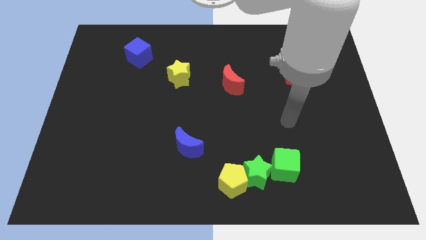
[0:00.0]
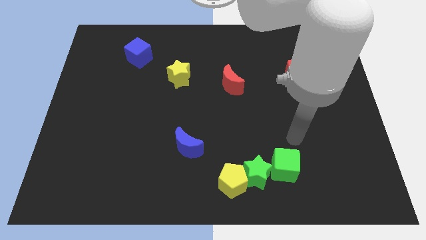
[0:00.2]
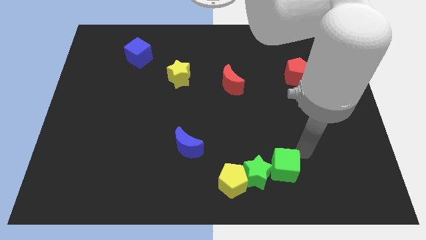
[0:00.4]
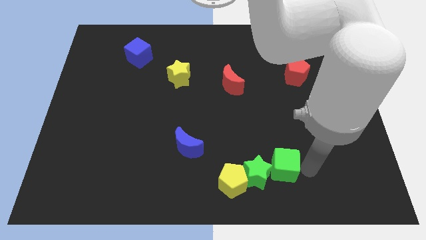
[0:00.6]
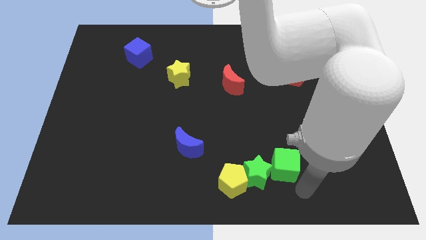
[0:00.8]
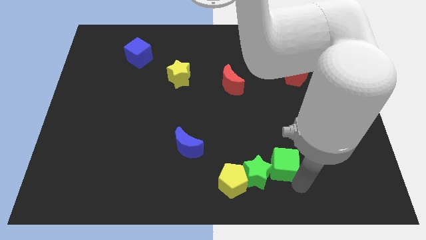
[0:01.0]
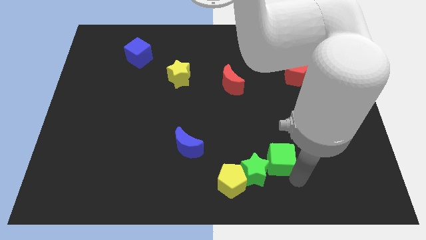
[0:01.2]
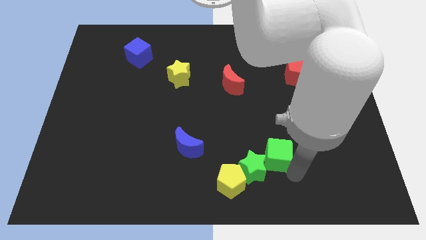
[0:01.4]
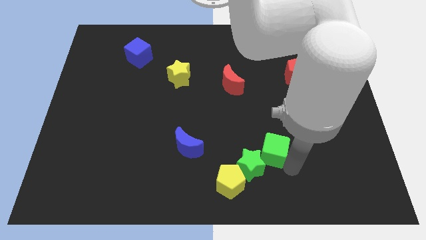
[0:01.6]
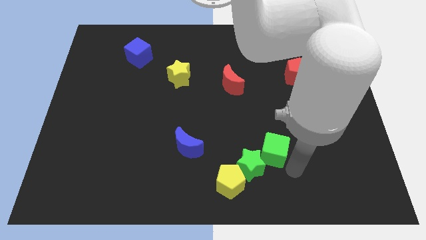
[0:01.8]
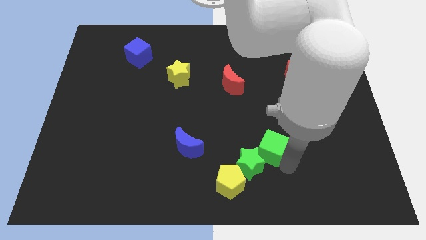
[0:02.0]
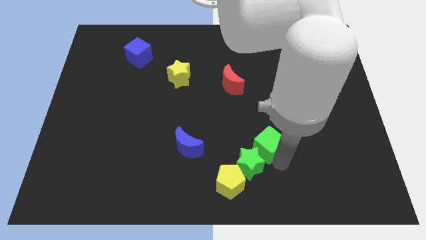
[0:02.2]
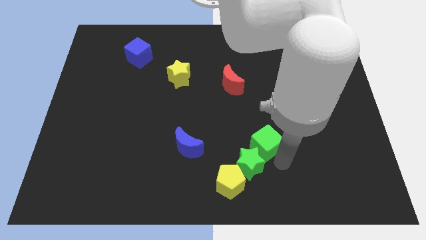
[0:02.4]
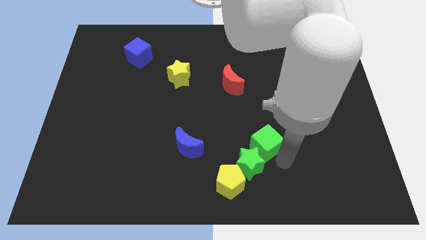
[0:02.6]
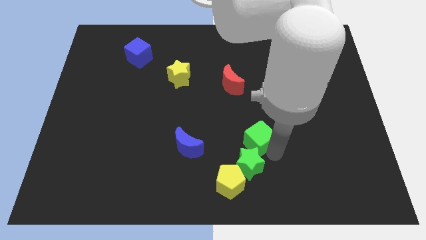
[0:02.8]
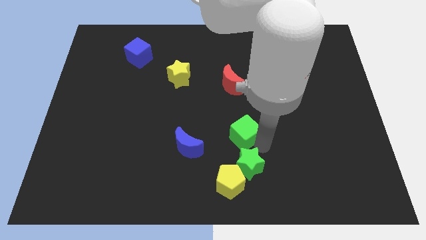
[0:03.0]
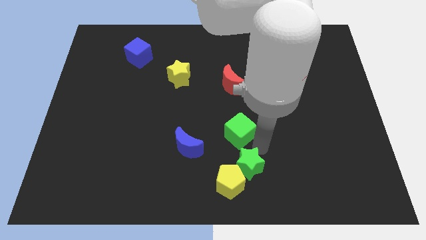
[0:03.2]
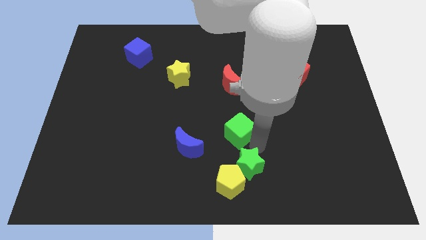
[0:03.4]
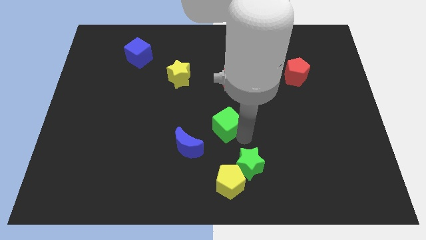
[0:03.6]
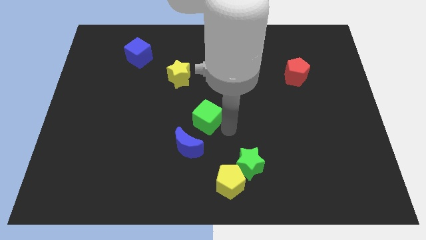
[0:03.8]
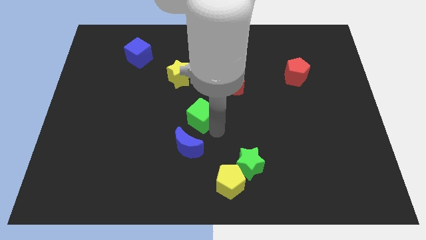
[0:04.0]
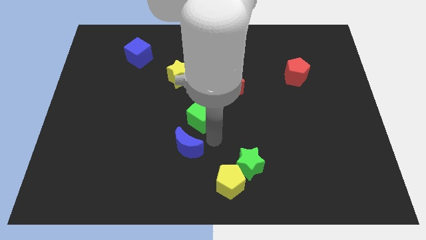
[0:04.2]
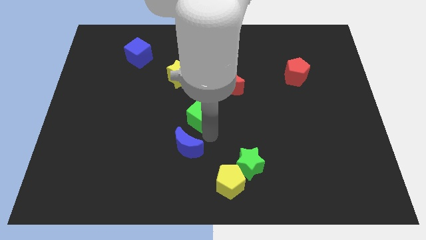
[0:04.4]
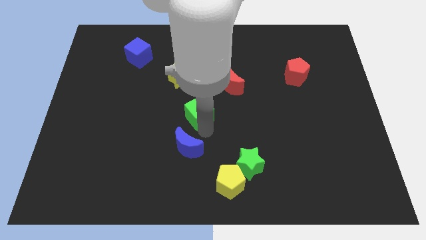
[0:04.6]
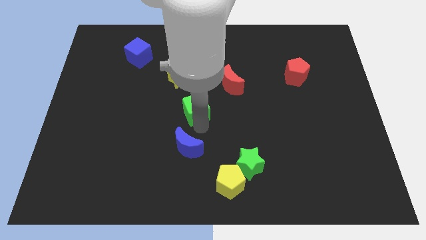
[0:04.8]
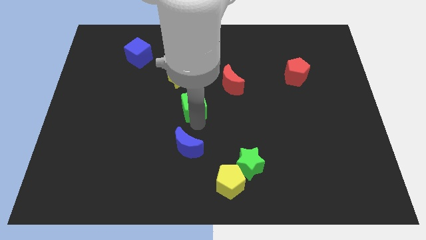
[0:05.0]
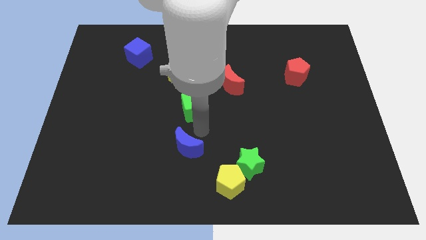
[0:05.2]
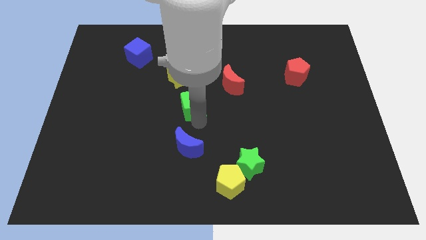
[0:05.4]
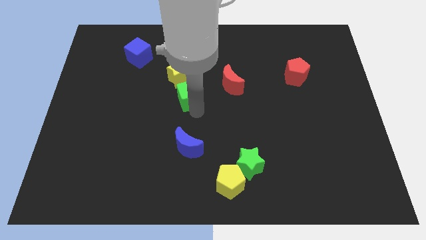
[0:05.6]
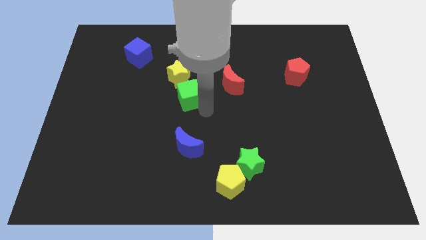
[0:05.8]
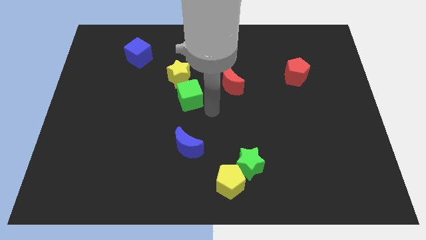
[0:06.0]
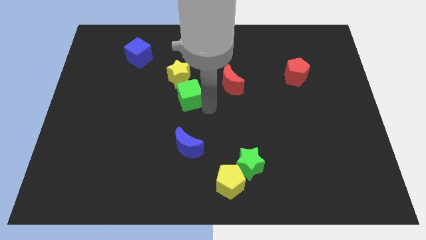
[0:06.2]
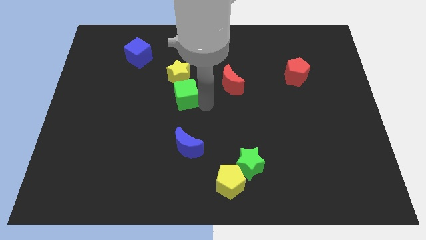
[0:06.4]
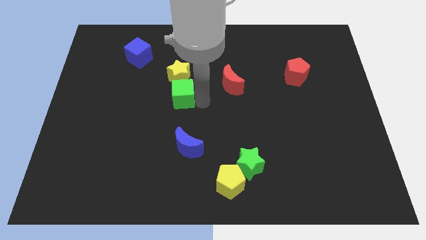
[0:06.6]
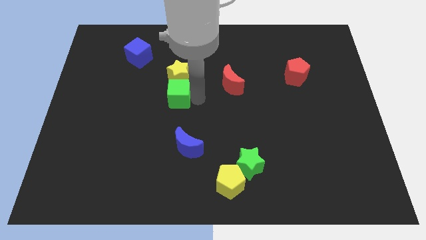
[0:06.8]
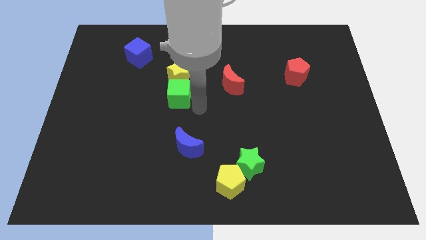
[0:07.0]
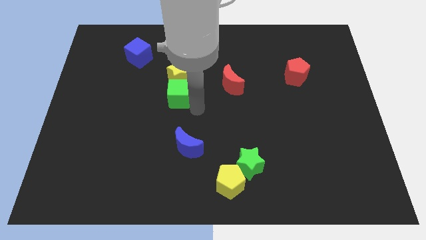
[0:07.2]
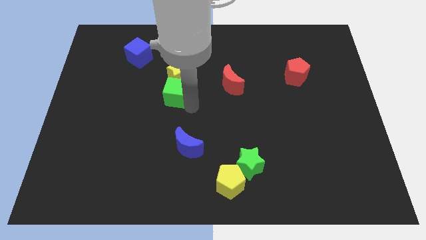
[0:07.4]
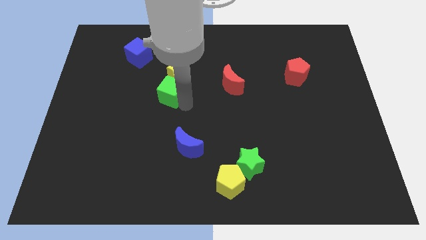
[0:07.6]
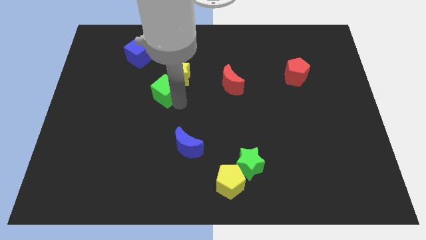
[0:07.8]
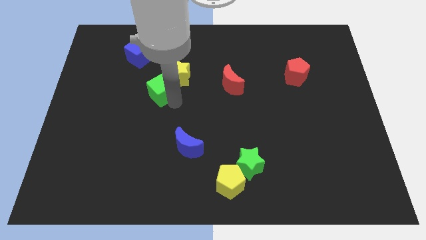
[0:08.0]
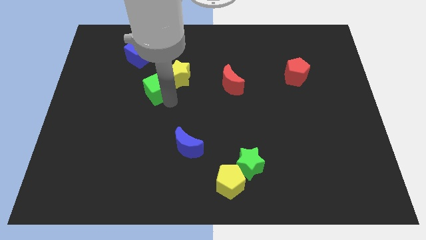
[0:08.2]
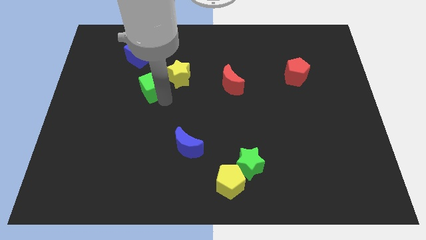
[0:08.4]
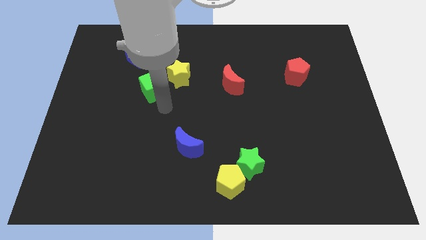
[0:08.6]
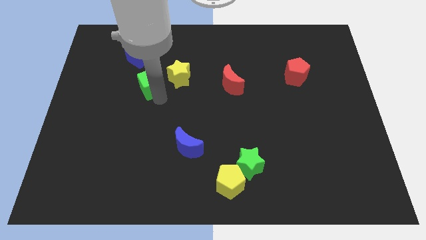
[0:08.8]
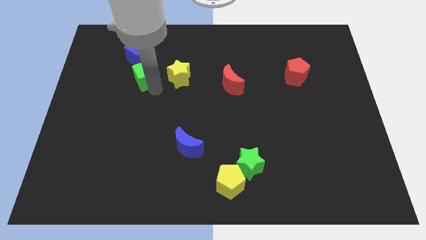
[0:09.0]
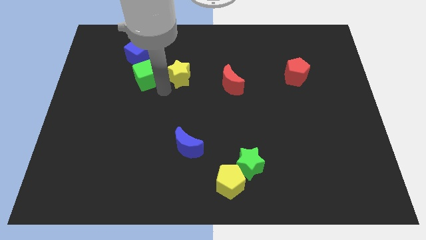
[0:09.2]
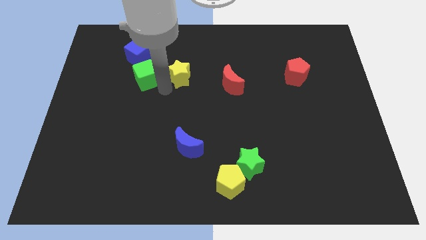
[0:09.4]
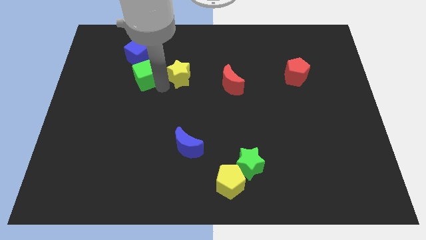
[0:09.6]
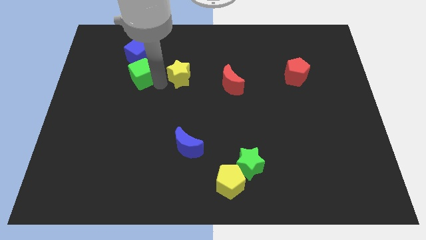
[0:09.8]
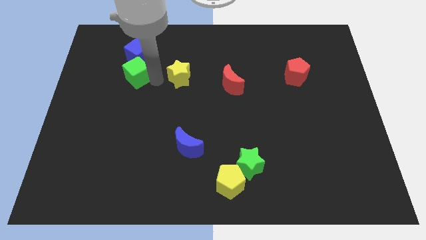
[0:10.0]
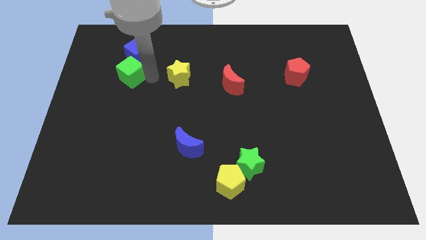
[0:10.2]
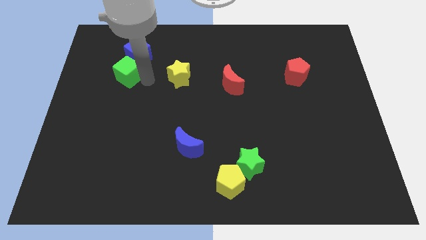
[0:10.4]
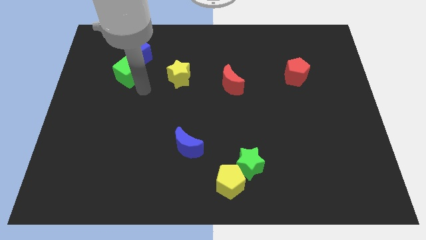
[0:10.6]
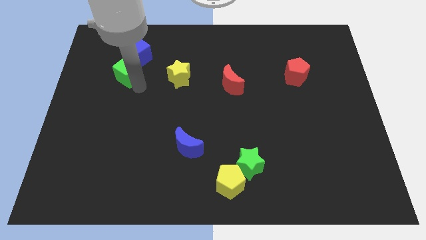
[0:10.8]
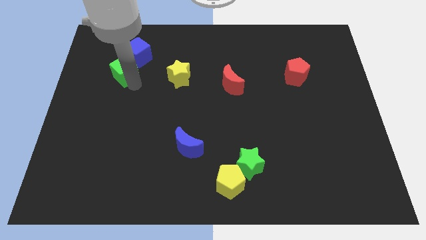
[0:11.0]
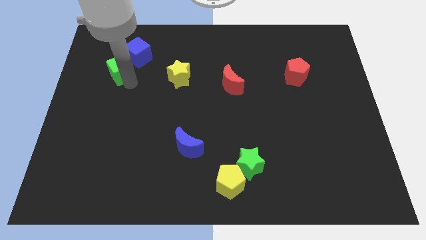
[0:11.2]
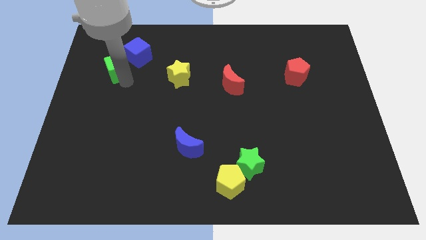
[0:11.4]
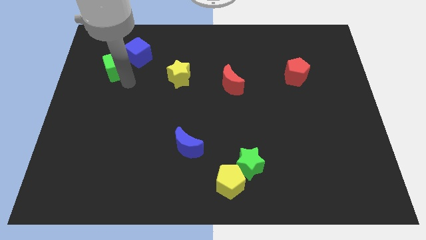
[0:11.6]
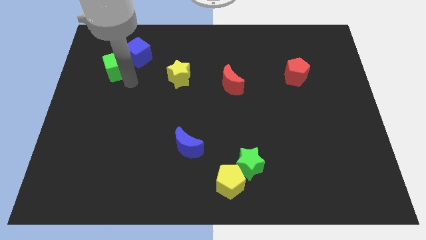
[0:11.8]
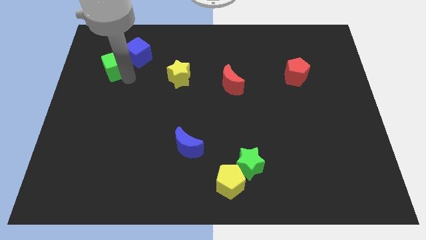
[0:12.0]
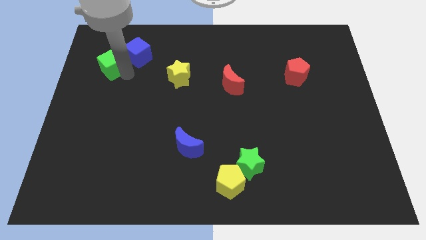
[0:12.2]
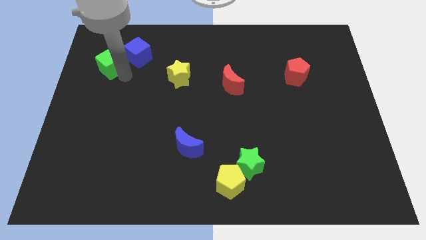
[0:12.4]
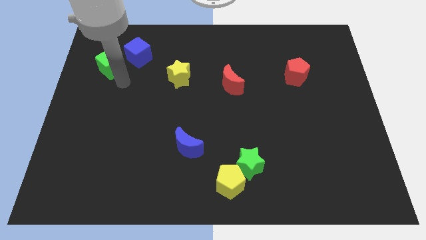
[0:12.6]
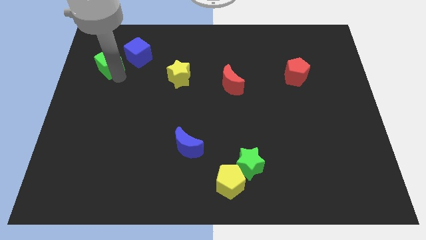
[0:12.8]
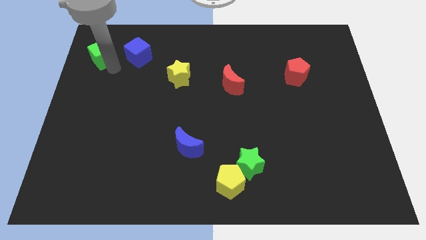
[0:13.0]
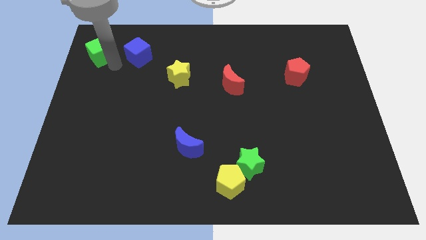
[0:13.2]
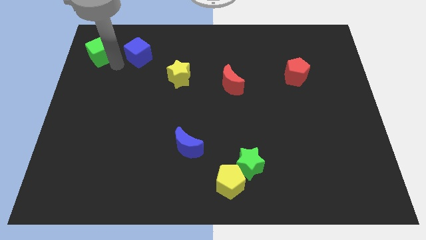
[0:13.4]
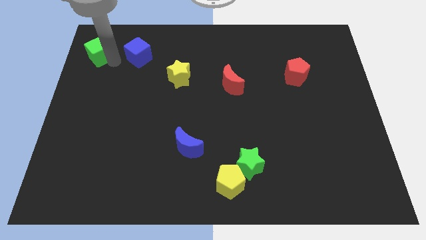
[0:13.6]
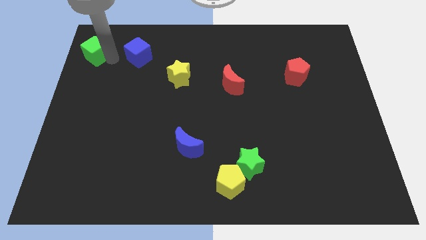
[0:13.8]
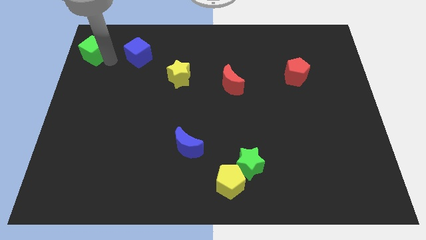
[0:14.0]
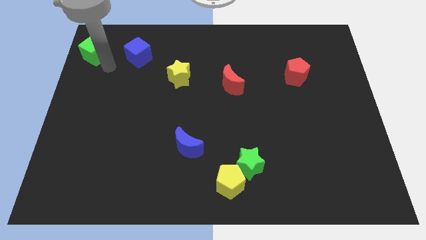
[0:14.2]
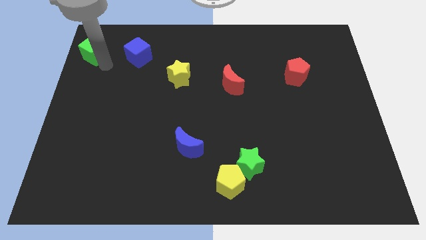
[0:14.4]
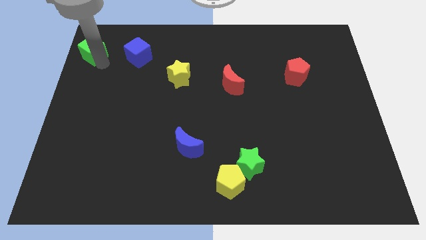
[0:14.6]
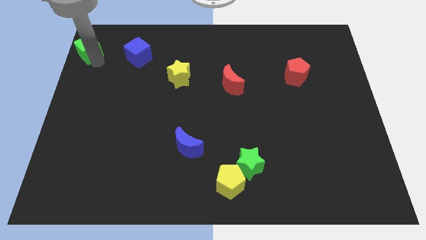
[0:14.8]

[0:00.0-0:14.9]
push the green cube to the upper left corner
